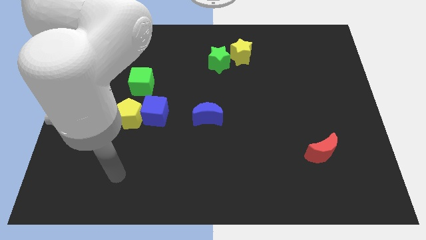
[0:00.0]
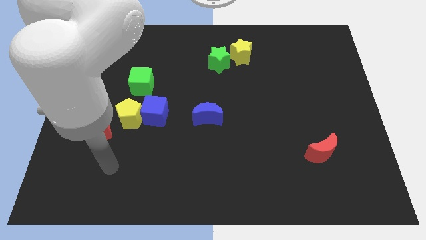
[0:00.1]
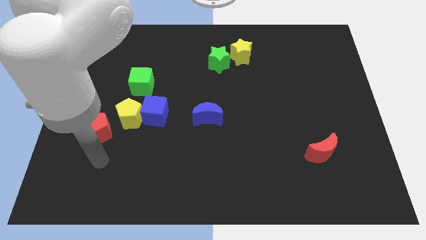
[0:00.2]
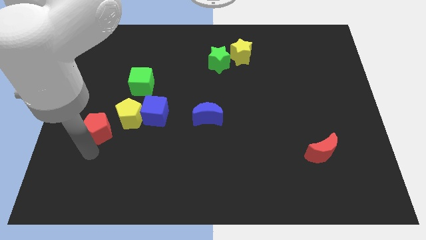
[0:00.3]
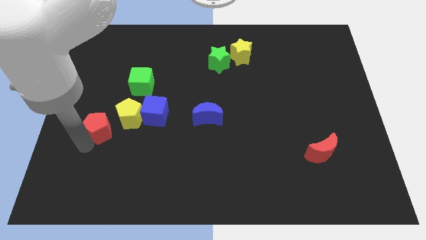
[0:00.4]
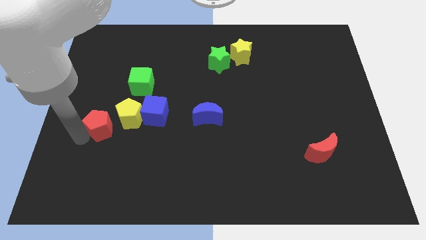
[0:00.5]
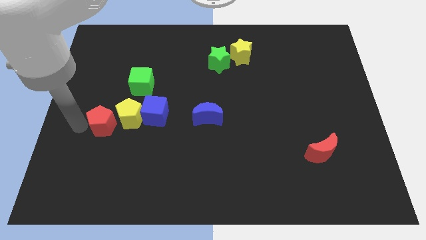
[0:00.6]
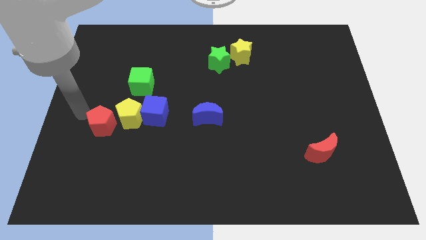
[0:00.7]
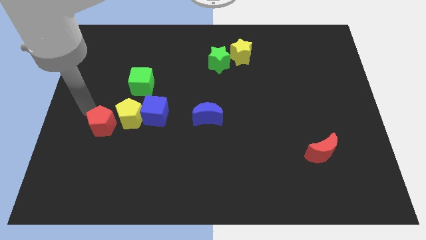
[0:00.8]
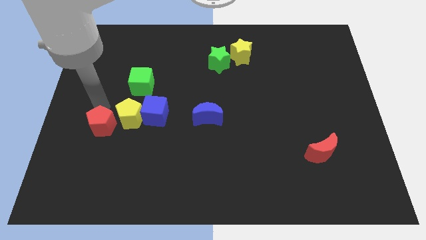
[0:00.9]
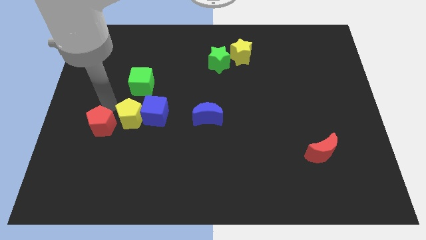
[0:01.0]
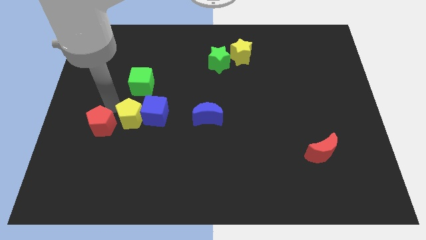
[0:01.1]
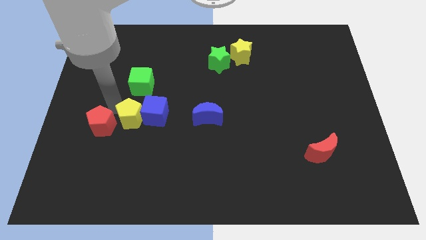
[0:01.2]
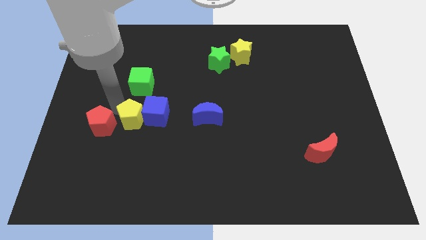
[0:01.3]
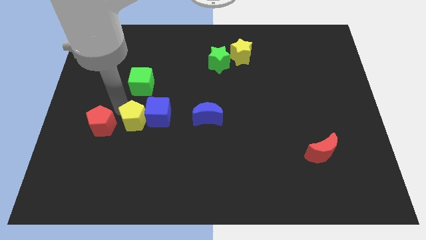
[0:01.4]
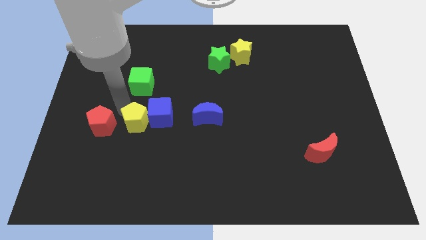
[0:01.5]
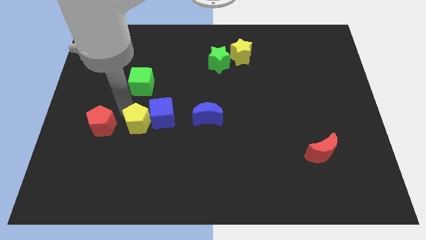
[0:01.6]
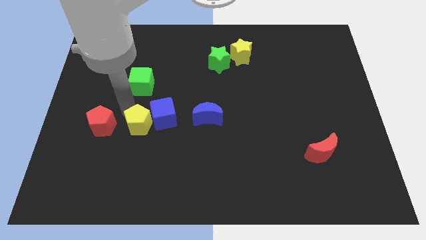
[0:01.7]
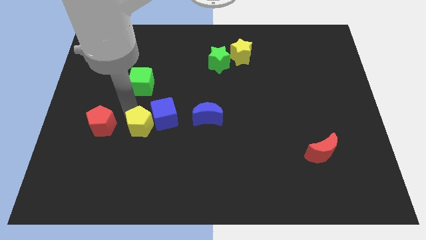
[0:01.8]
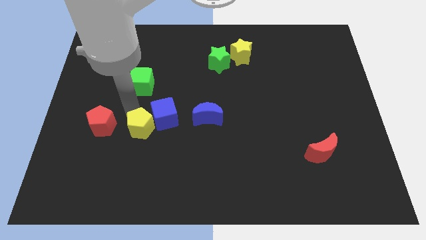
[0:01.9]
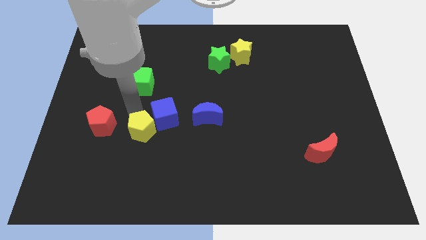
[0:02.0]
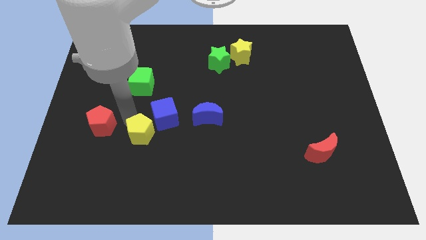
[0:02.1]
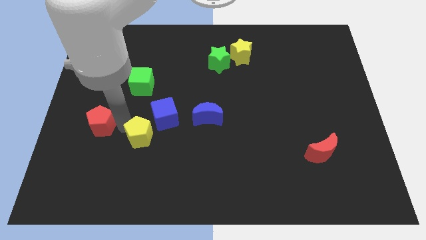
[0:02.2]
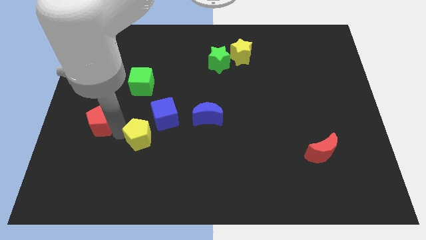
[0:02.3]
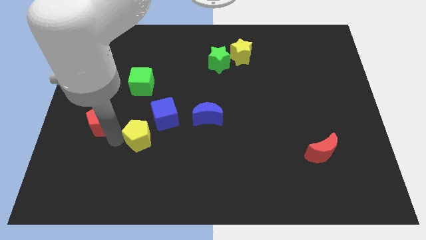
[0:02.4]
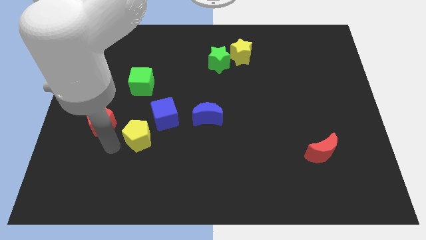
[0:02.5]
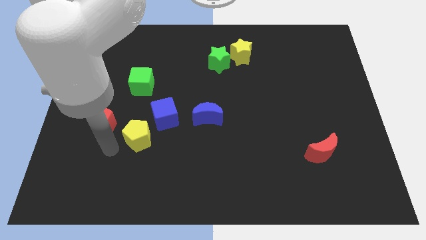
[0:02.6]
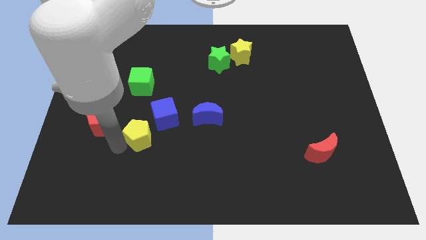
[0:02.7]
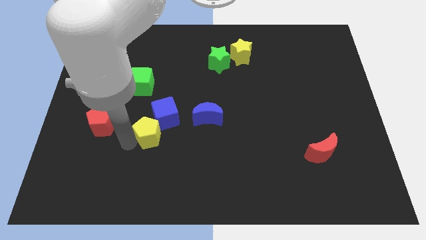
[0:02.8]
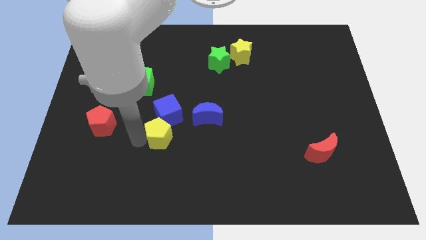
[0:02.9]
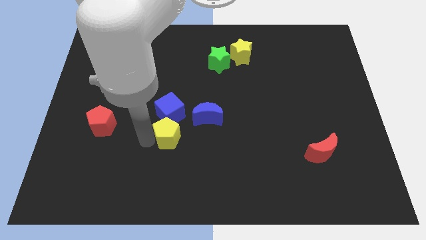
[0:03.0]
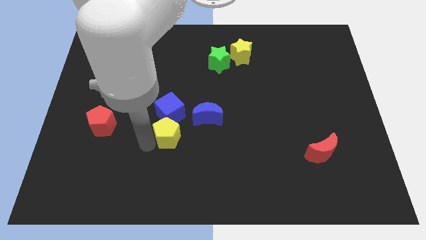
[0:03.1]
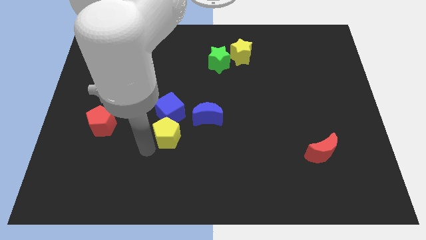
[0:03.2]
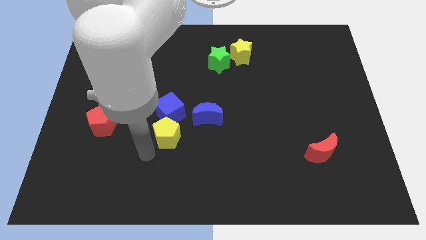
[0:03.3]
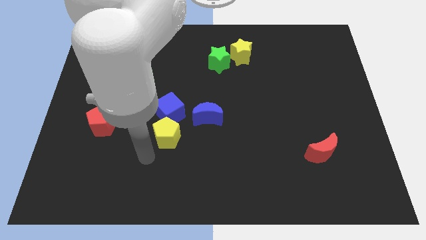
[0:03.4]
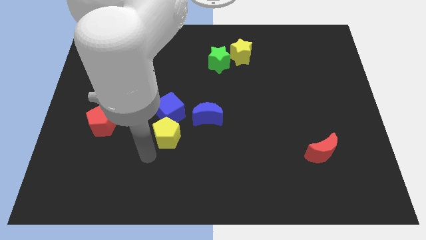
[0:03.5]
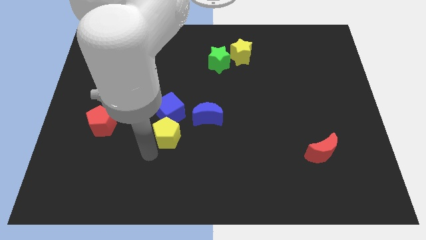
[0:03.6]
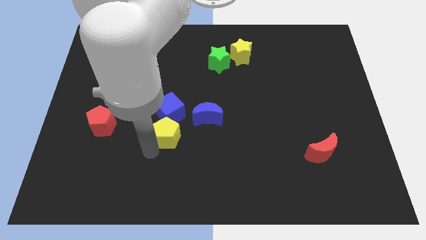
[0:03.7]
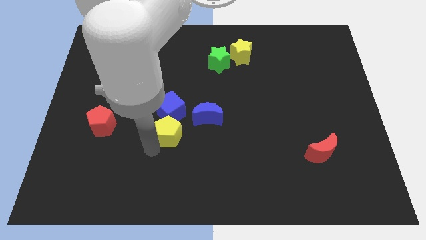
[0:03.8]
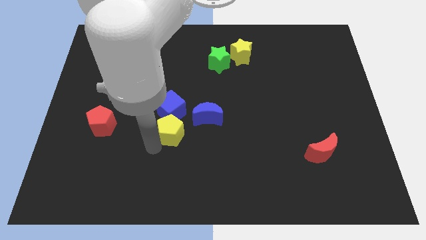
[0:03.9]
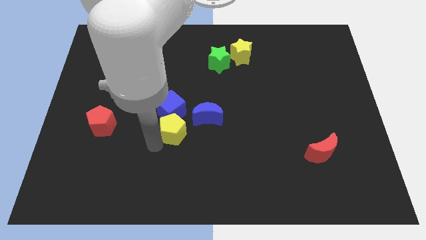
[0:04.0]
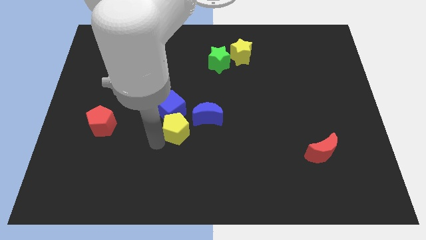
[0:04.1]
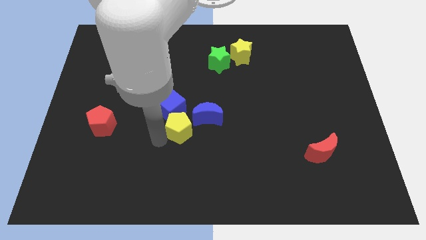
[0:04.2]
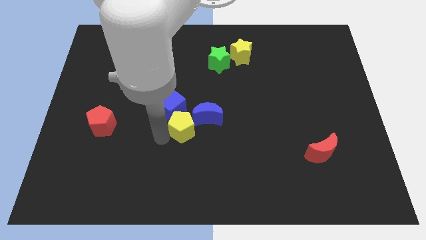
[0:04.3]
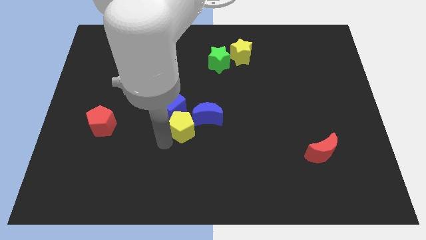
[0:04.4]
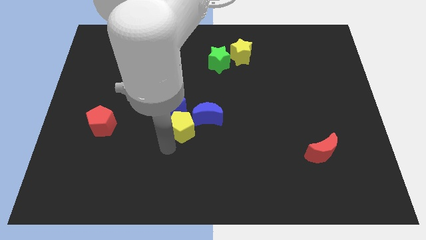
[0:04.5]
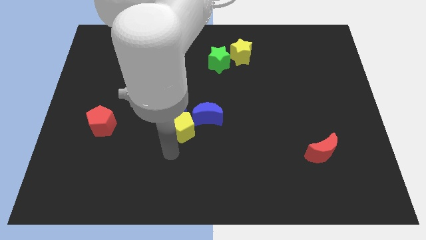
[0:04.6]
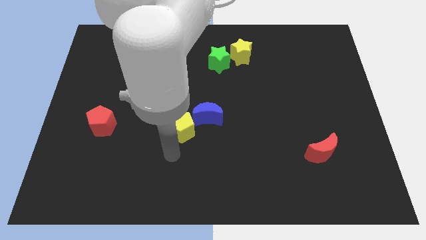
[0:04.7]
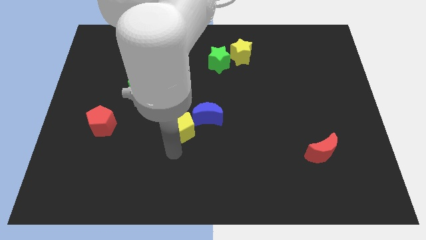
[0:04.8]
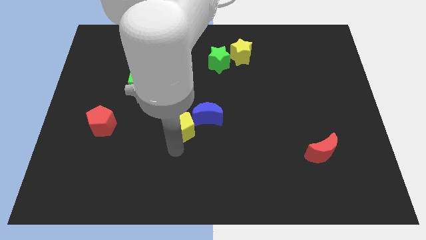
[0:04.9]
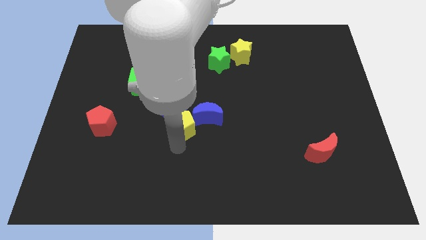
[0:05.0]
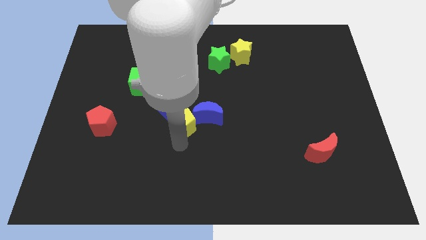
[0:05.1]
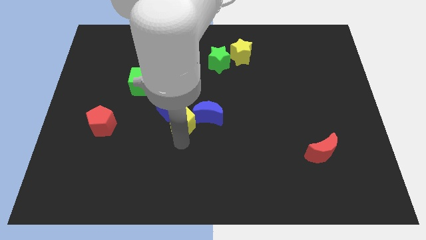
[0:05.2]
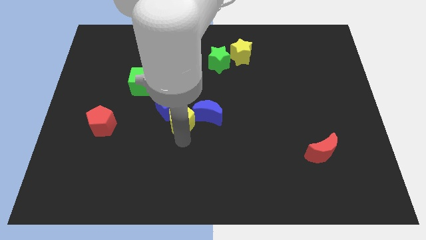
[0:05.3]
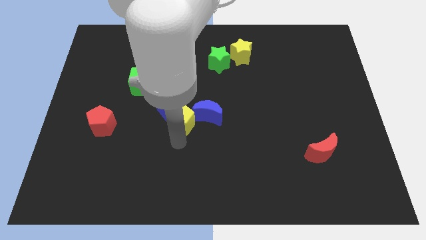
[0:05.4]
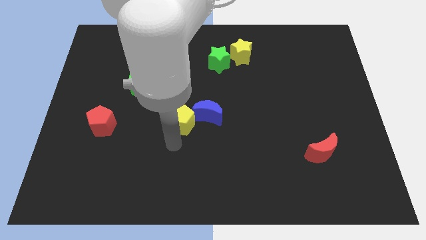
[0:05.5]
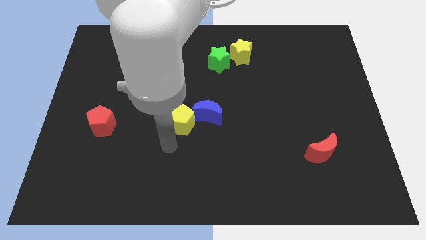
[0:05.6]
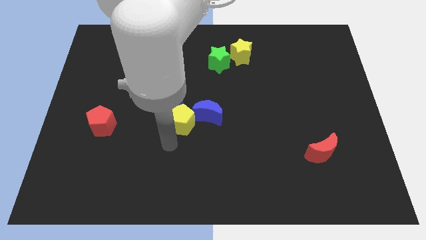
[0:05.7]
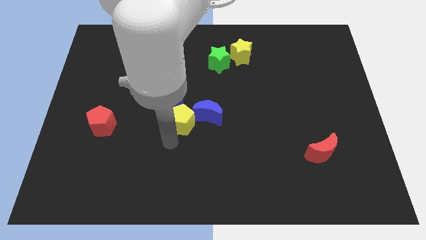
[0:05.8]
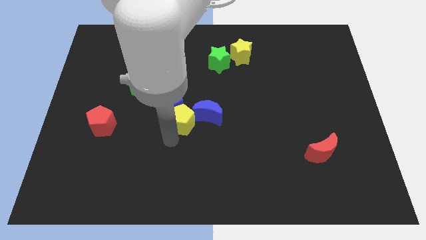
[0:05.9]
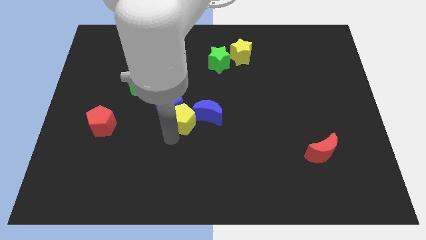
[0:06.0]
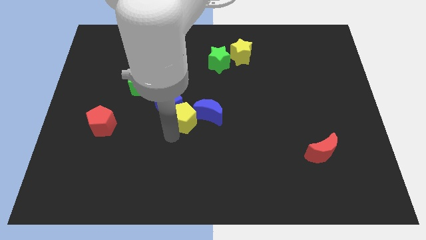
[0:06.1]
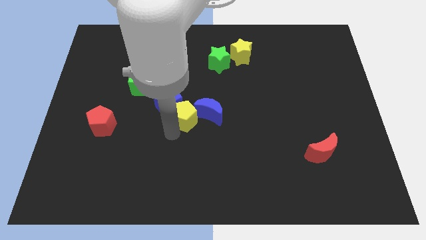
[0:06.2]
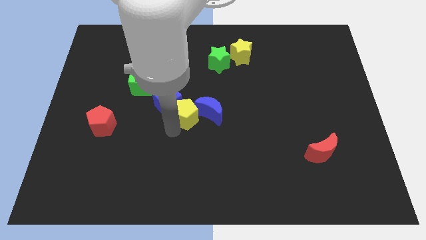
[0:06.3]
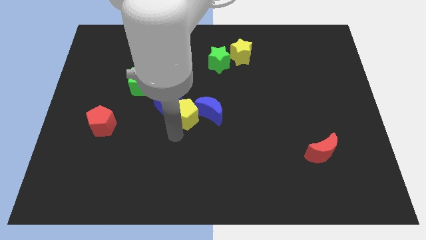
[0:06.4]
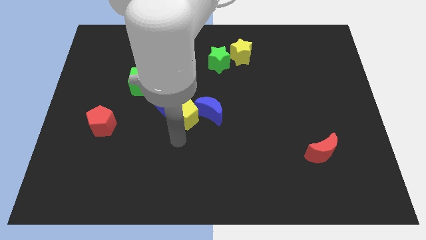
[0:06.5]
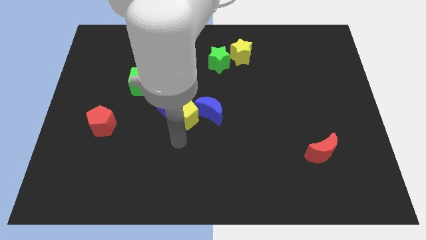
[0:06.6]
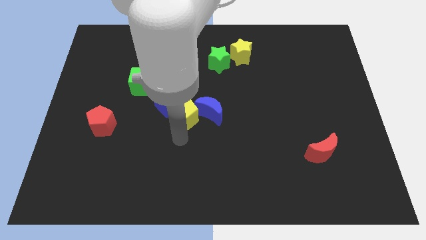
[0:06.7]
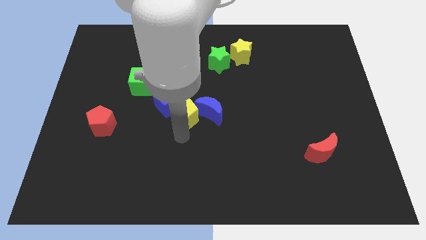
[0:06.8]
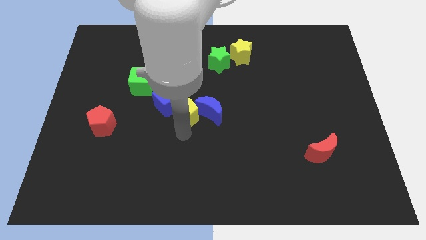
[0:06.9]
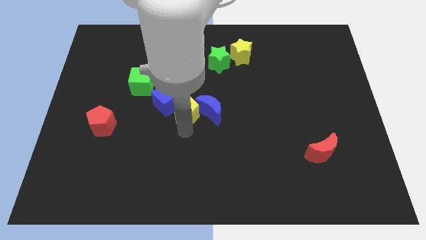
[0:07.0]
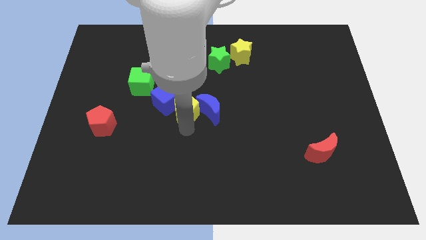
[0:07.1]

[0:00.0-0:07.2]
push the yellow pentagon upwards and to the right a little bit

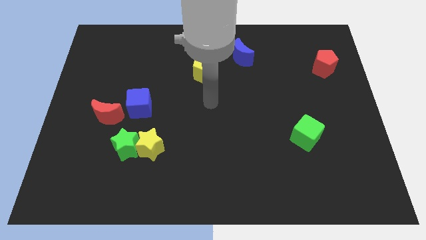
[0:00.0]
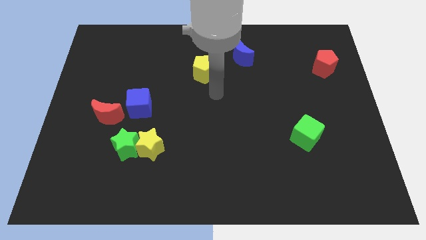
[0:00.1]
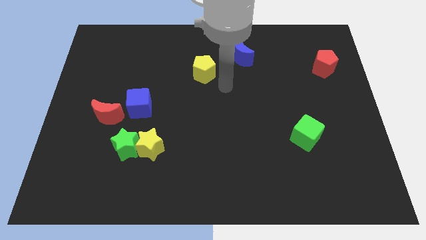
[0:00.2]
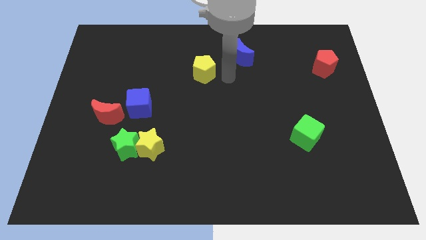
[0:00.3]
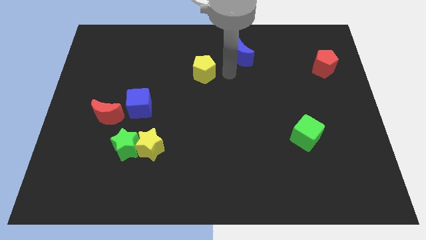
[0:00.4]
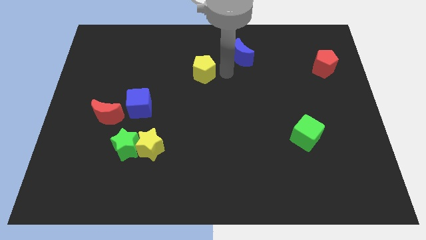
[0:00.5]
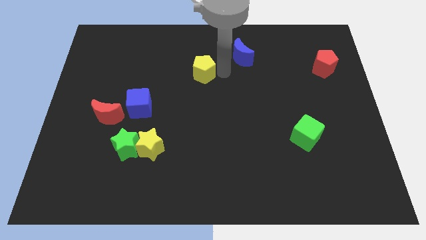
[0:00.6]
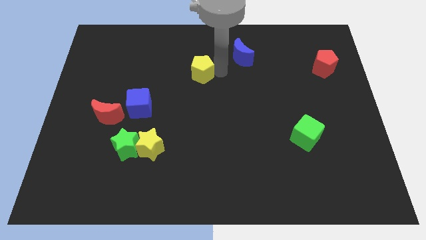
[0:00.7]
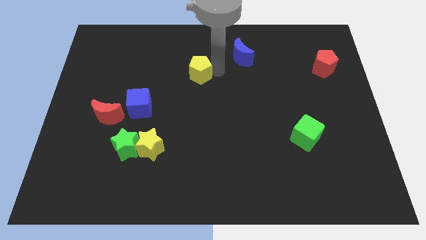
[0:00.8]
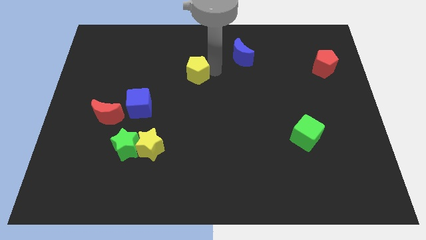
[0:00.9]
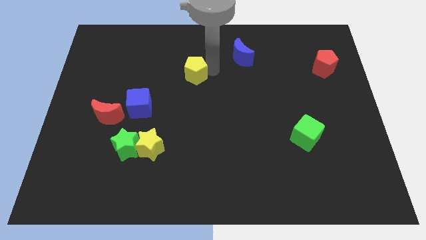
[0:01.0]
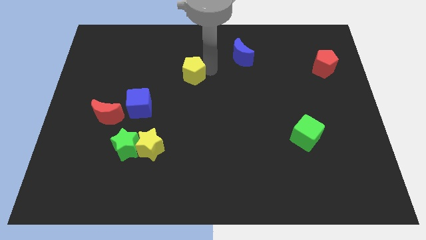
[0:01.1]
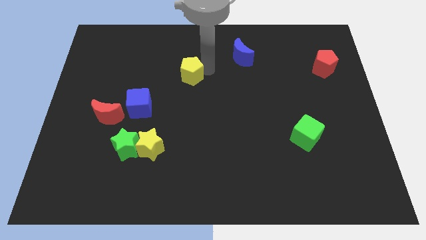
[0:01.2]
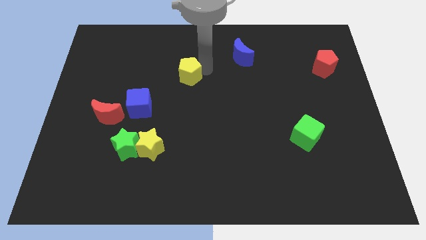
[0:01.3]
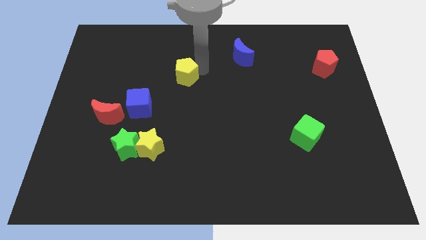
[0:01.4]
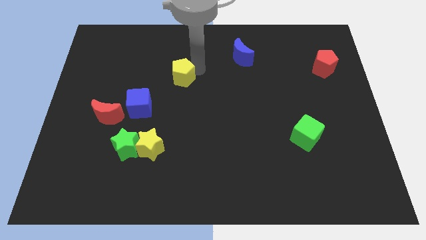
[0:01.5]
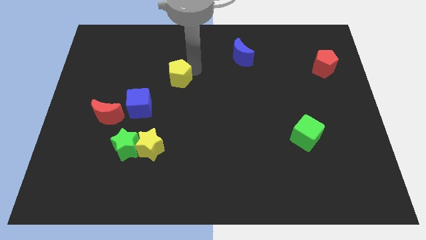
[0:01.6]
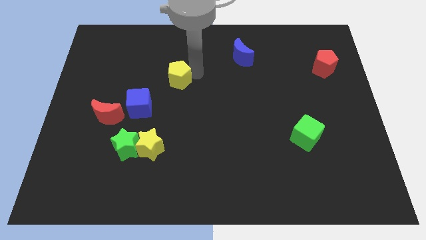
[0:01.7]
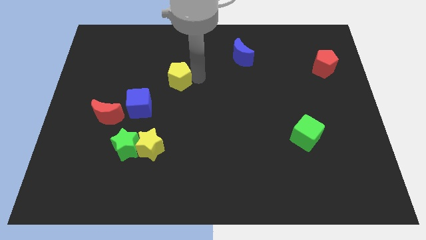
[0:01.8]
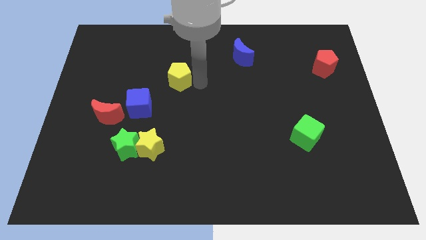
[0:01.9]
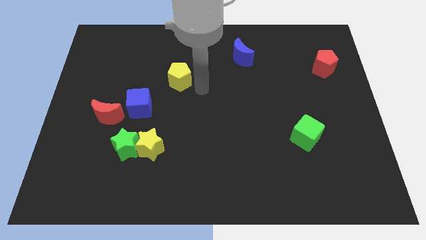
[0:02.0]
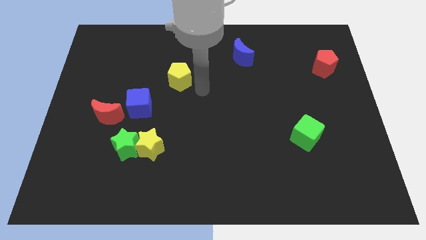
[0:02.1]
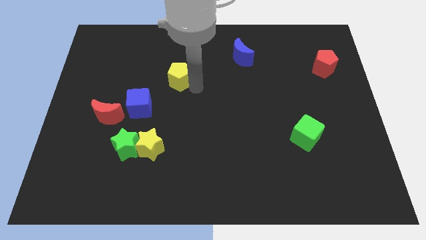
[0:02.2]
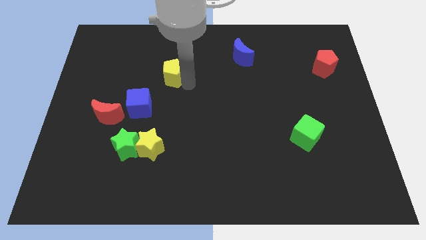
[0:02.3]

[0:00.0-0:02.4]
move the yellow pentagon a little bit to the left
